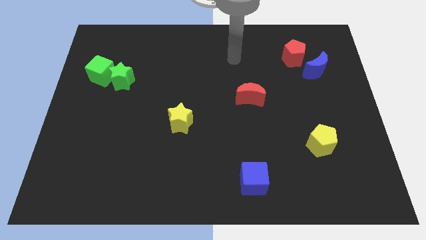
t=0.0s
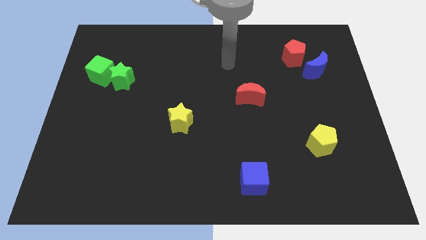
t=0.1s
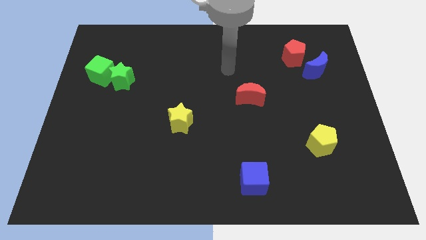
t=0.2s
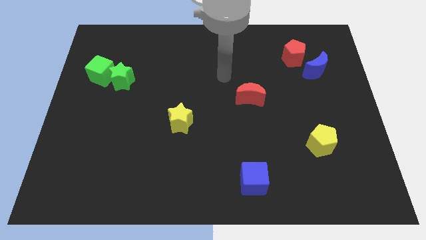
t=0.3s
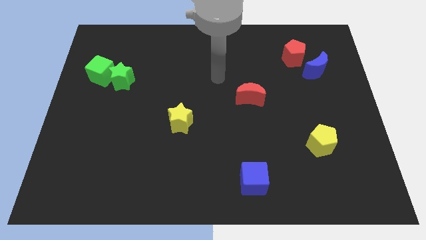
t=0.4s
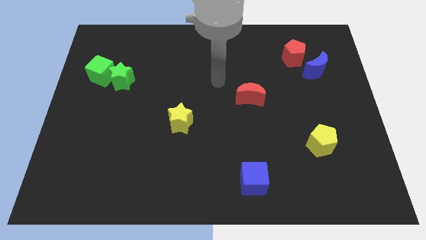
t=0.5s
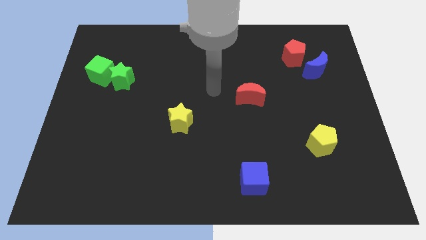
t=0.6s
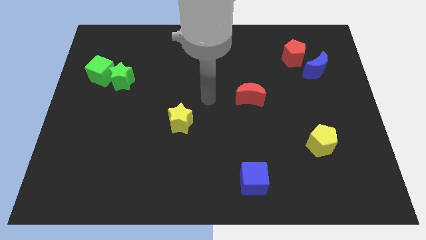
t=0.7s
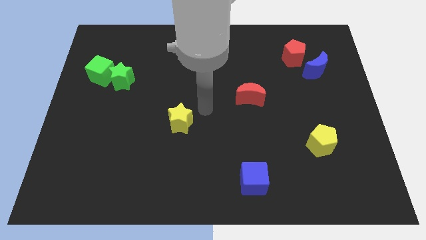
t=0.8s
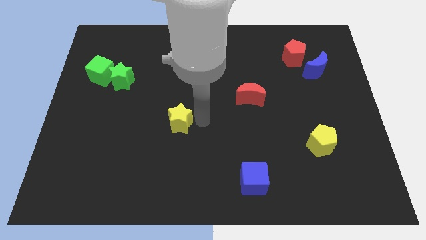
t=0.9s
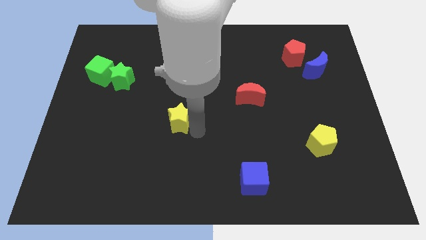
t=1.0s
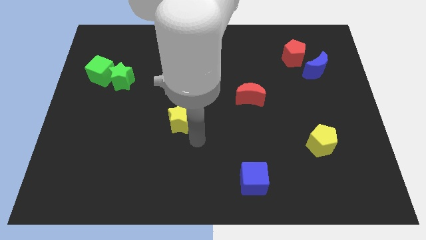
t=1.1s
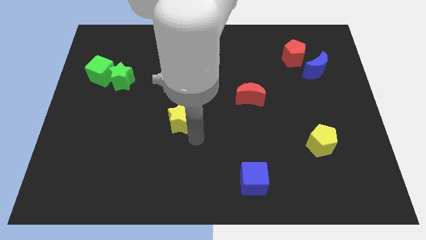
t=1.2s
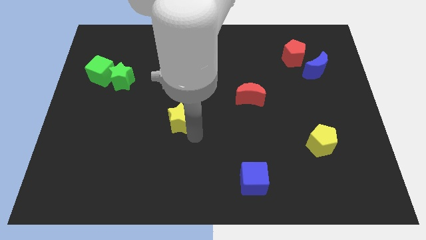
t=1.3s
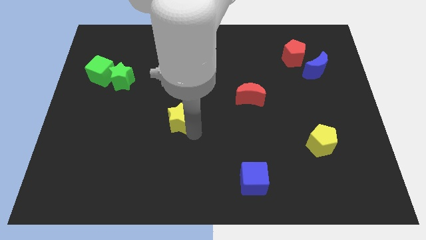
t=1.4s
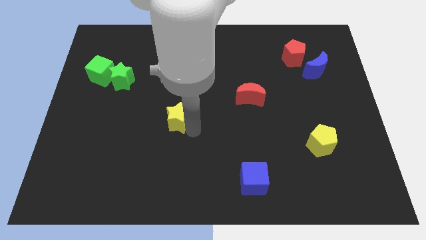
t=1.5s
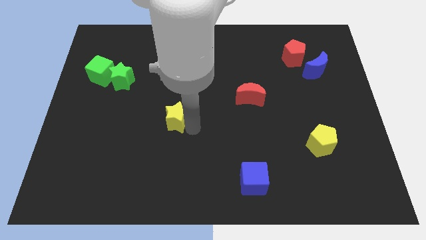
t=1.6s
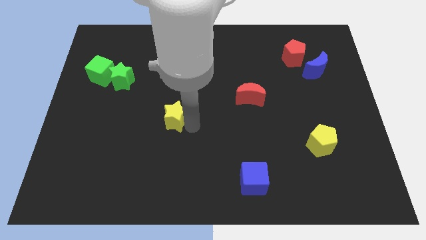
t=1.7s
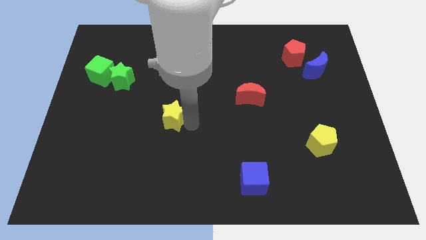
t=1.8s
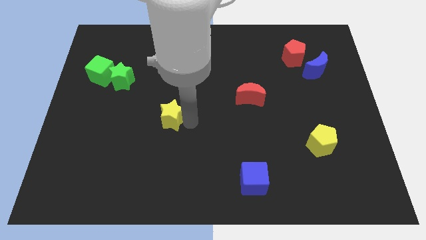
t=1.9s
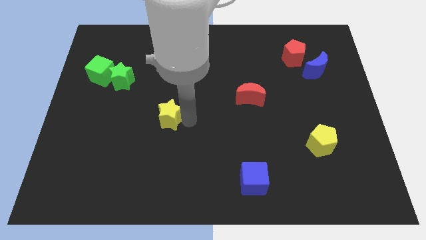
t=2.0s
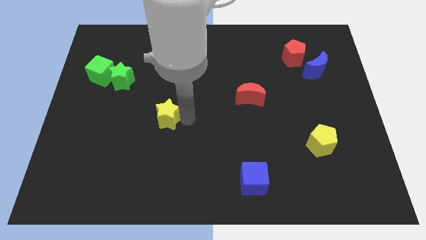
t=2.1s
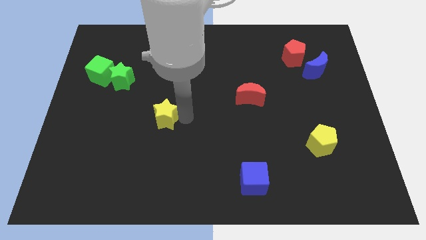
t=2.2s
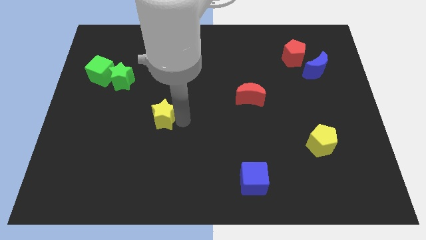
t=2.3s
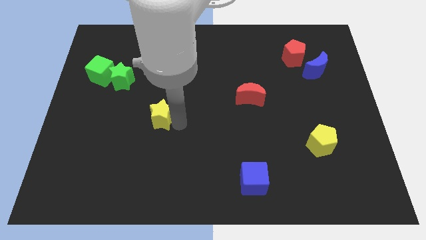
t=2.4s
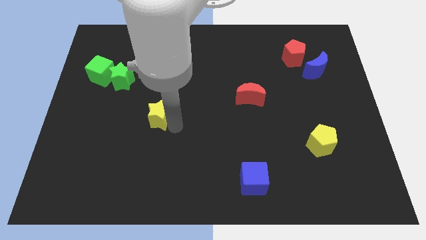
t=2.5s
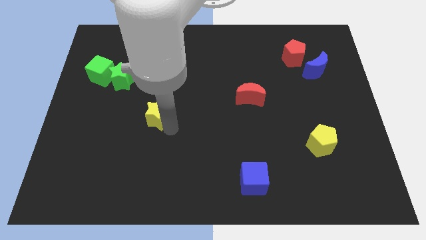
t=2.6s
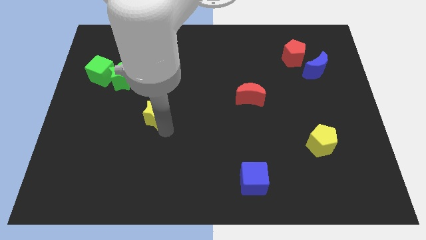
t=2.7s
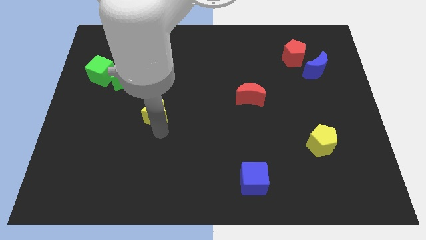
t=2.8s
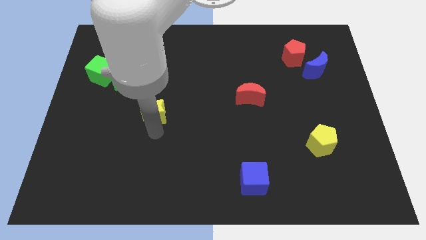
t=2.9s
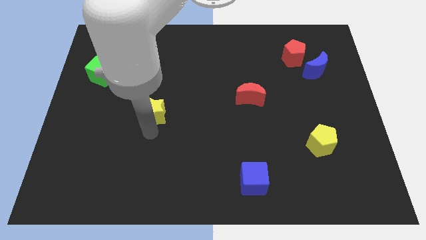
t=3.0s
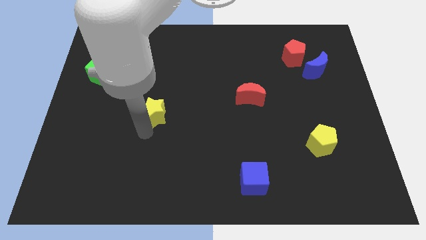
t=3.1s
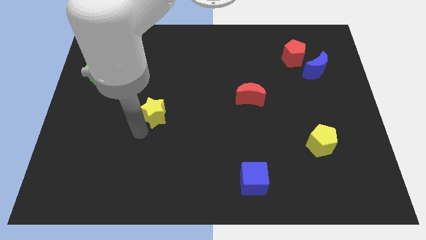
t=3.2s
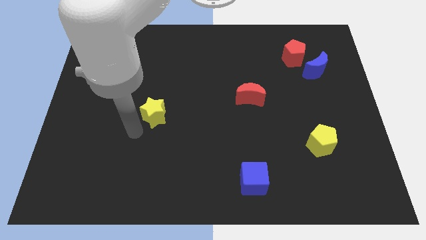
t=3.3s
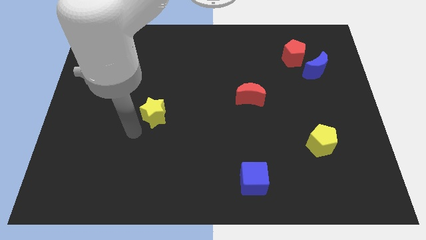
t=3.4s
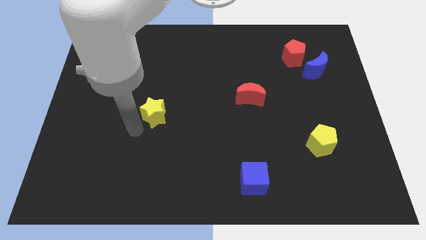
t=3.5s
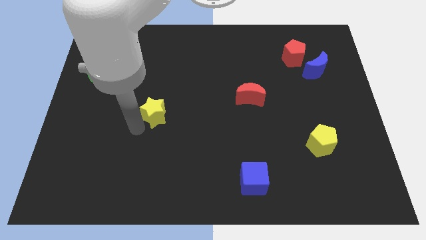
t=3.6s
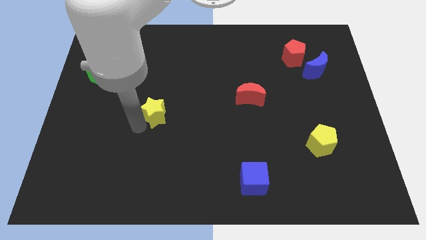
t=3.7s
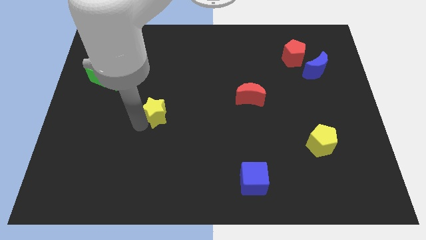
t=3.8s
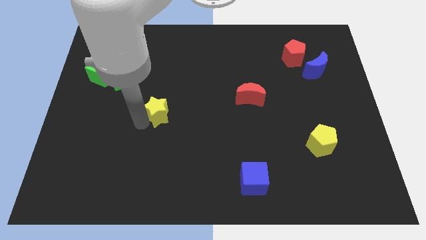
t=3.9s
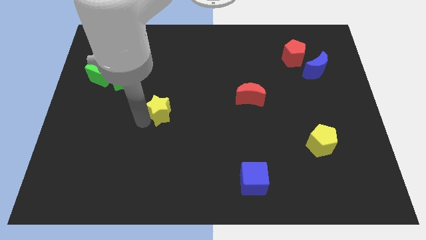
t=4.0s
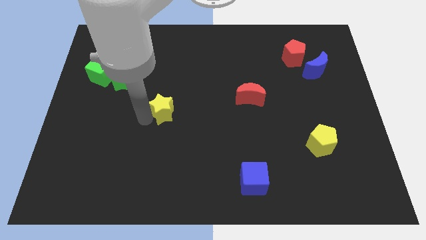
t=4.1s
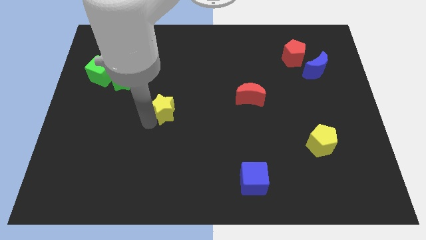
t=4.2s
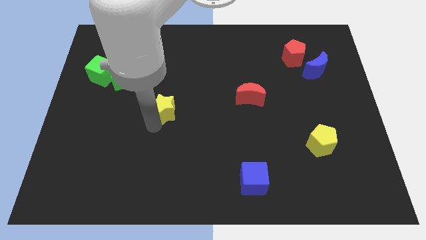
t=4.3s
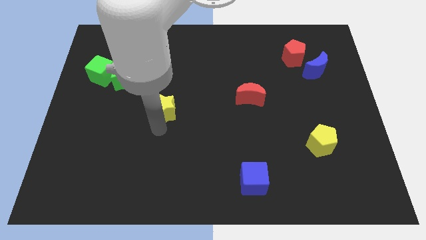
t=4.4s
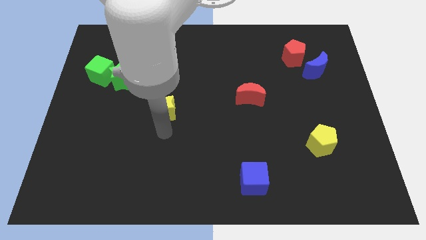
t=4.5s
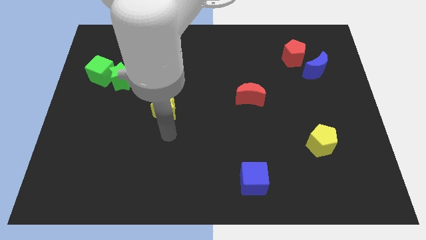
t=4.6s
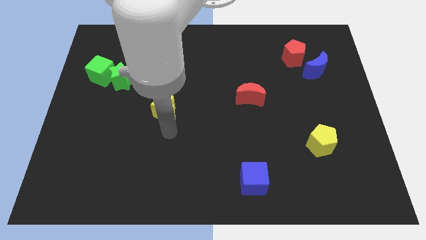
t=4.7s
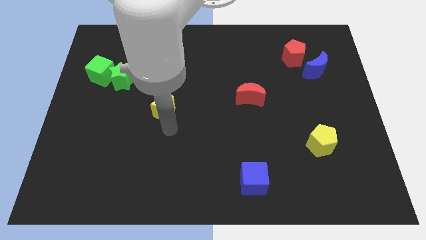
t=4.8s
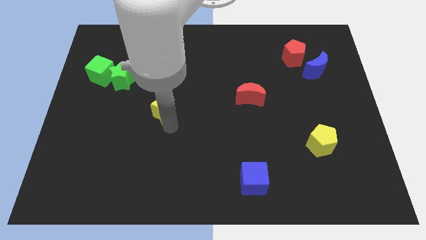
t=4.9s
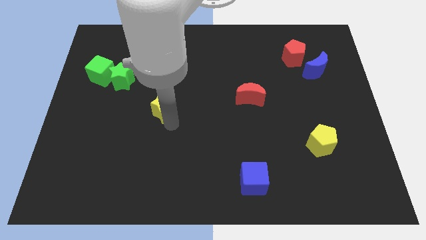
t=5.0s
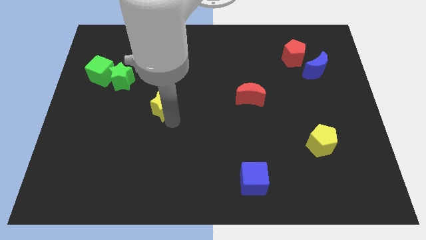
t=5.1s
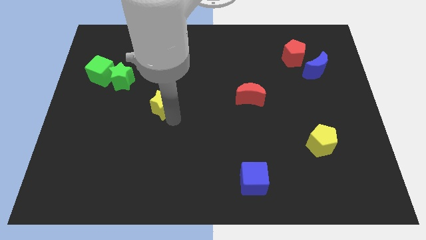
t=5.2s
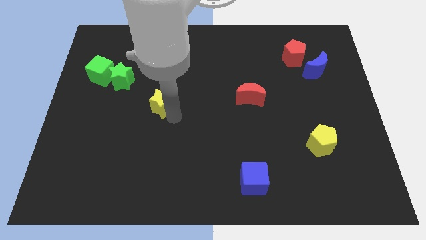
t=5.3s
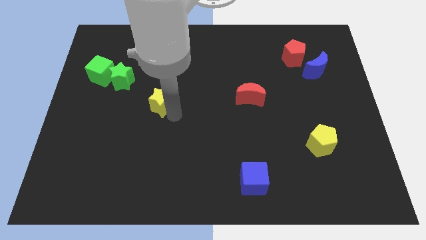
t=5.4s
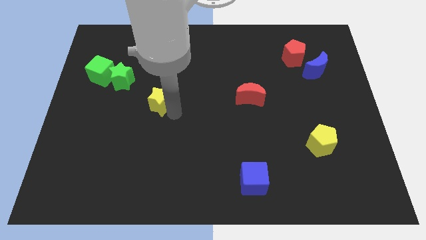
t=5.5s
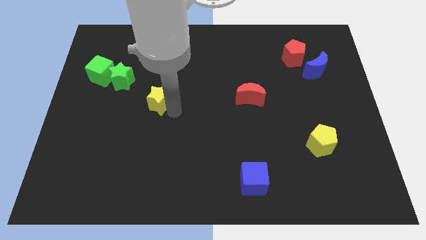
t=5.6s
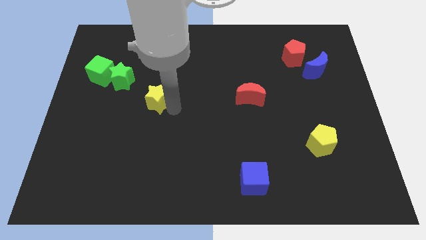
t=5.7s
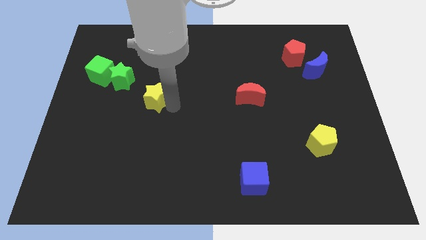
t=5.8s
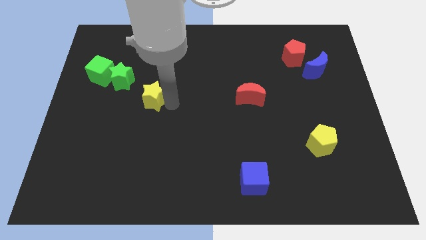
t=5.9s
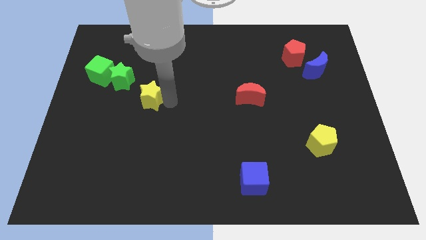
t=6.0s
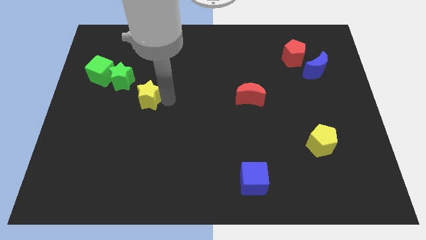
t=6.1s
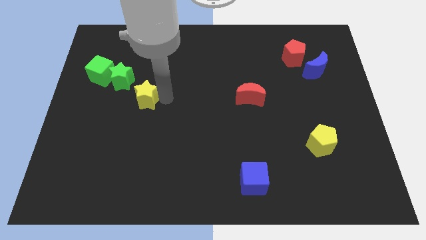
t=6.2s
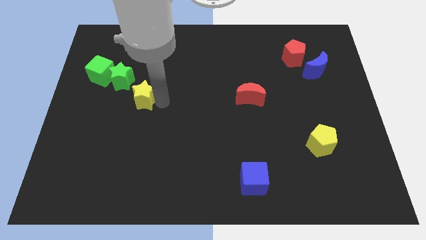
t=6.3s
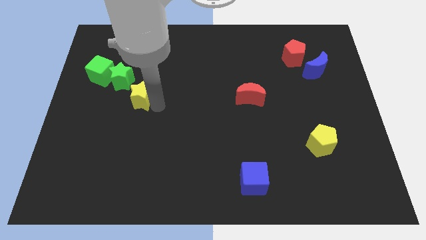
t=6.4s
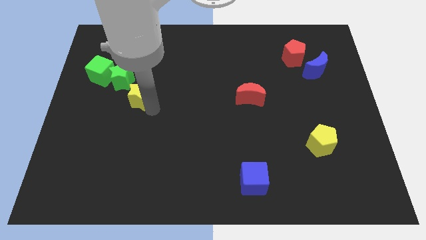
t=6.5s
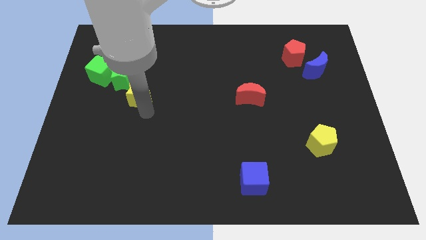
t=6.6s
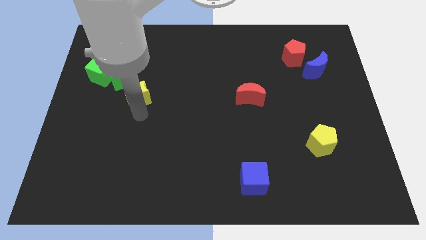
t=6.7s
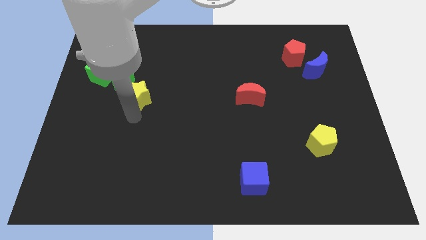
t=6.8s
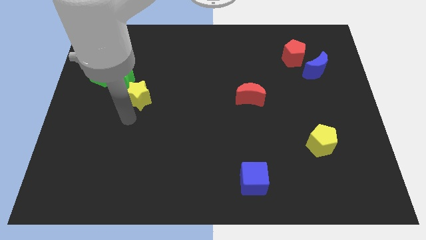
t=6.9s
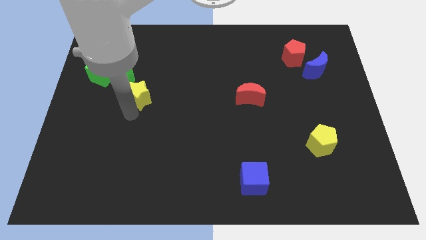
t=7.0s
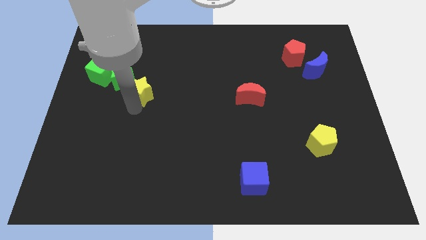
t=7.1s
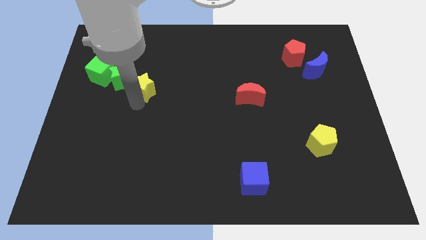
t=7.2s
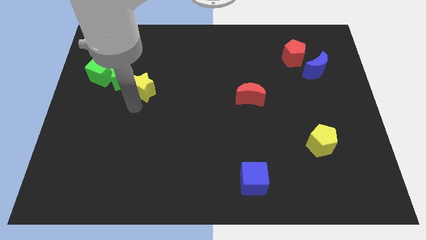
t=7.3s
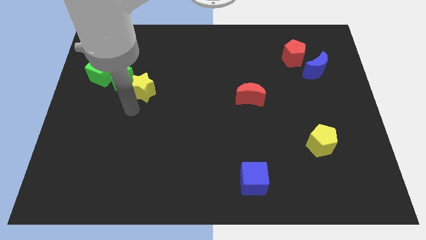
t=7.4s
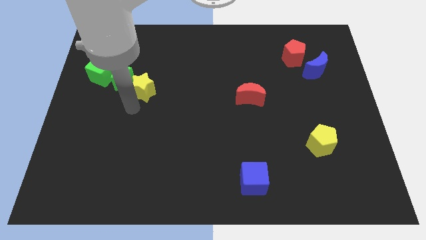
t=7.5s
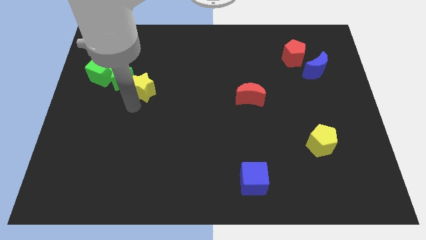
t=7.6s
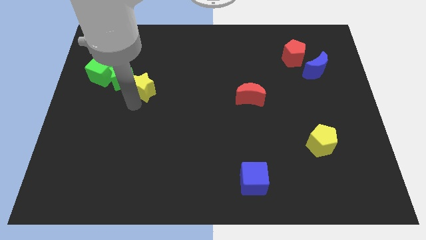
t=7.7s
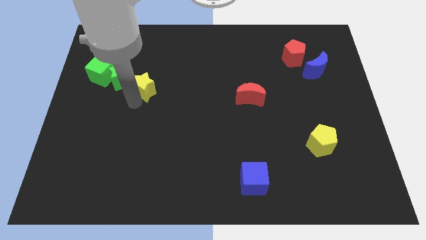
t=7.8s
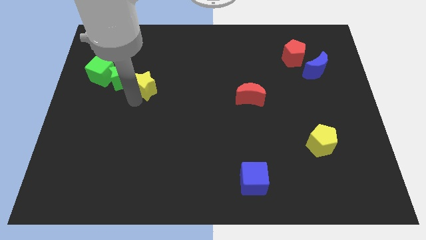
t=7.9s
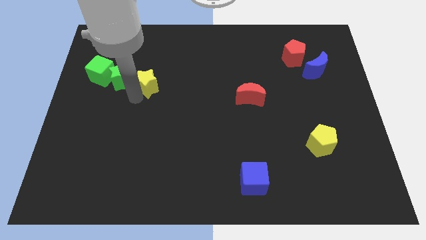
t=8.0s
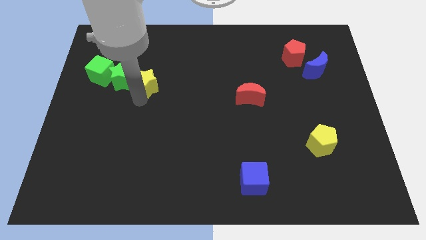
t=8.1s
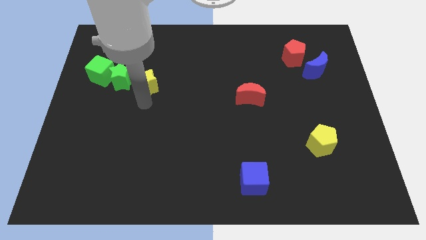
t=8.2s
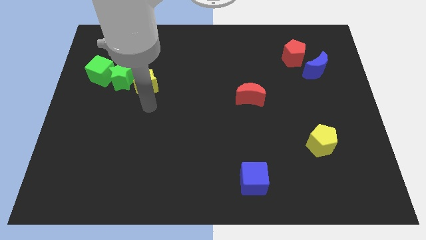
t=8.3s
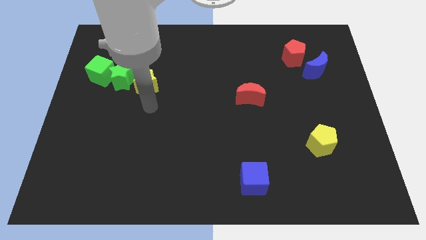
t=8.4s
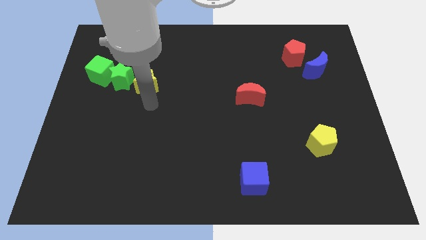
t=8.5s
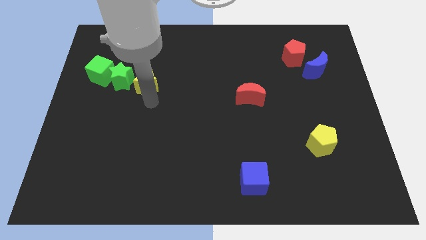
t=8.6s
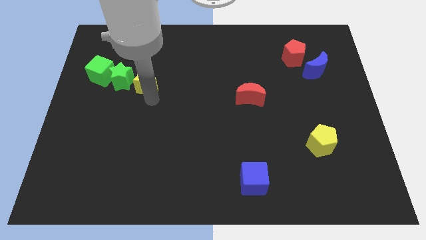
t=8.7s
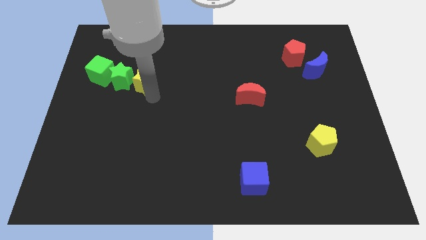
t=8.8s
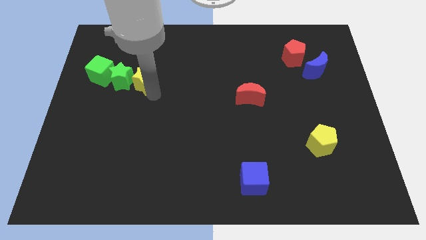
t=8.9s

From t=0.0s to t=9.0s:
push the yellow star diagonally up and to the right of the green star
